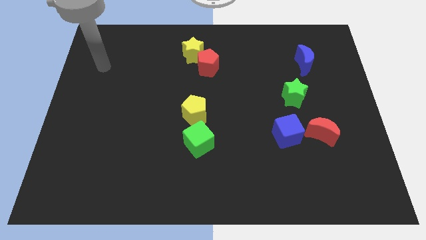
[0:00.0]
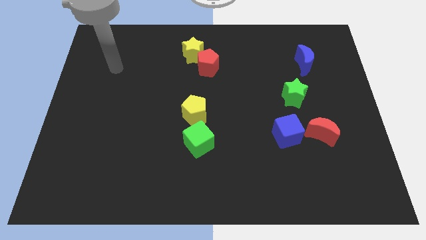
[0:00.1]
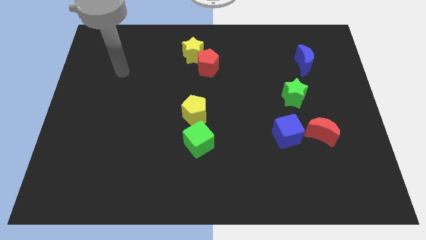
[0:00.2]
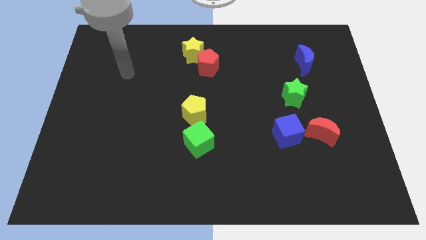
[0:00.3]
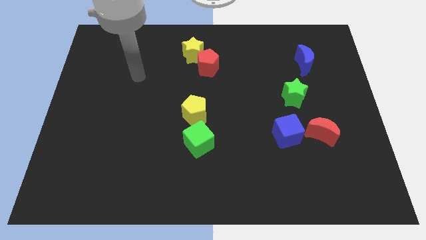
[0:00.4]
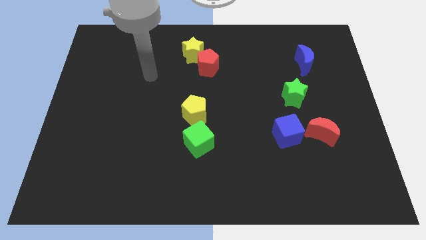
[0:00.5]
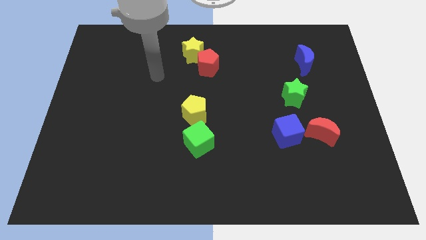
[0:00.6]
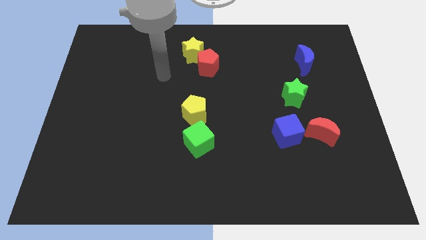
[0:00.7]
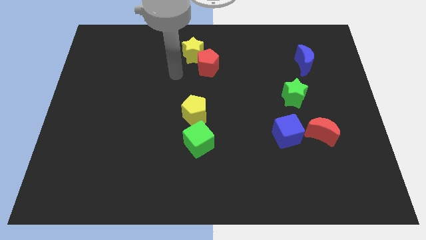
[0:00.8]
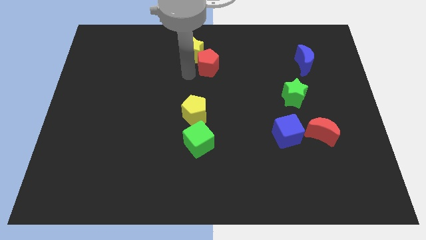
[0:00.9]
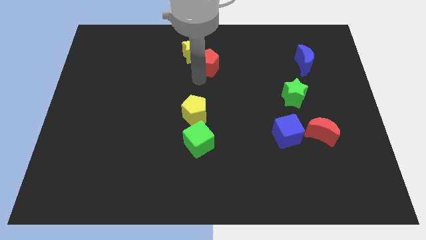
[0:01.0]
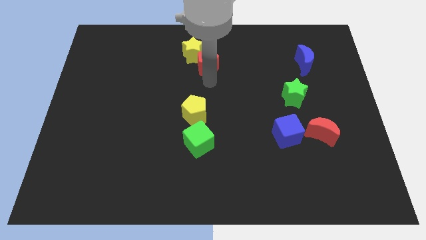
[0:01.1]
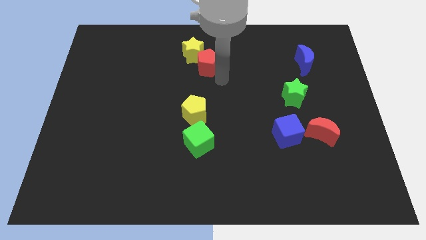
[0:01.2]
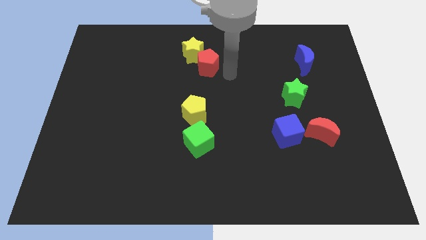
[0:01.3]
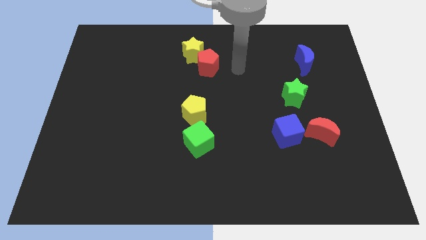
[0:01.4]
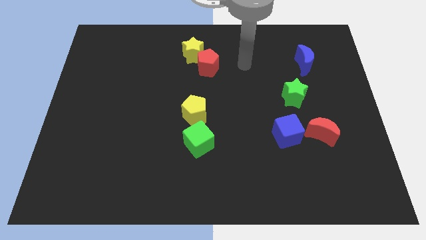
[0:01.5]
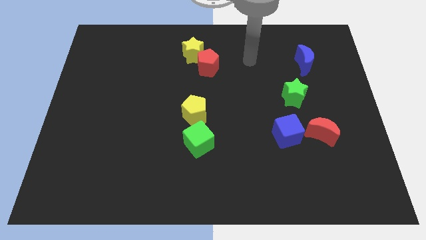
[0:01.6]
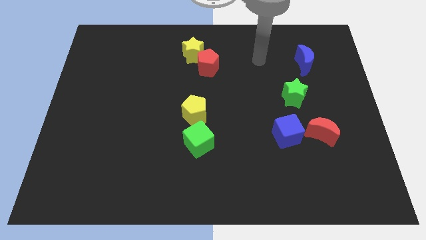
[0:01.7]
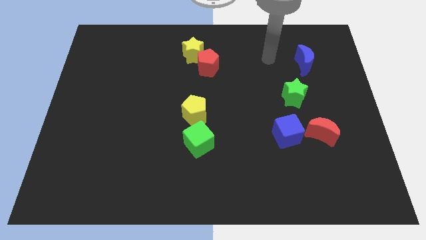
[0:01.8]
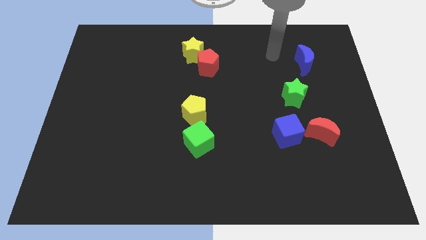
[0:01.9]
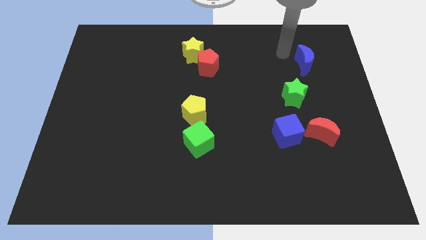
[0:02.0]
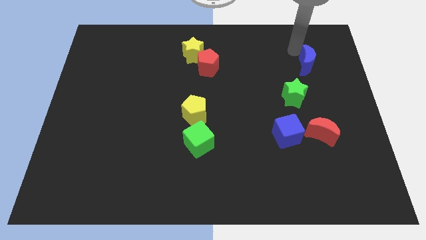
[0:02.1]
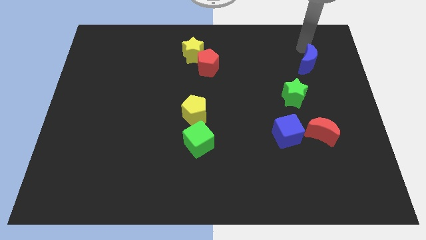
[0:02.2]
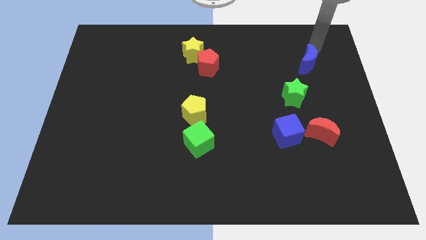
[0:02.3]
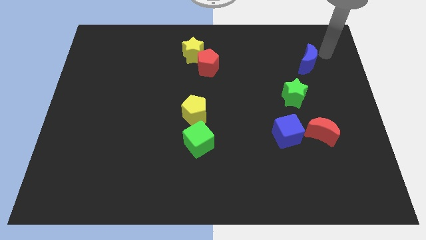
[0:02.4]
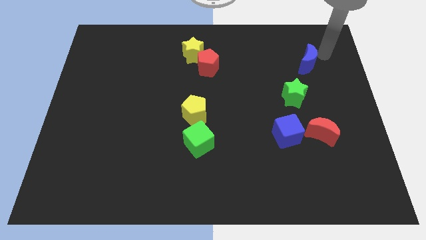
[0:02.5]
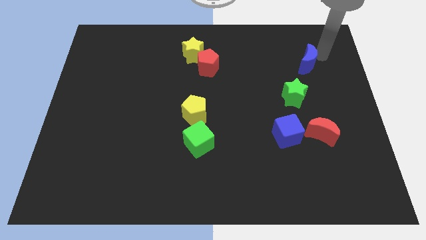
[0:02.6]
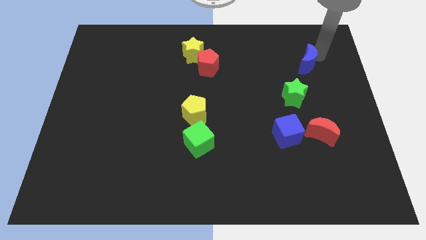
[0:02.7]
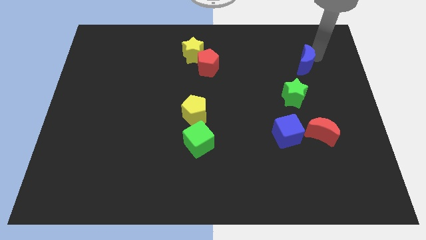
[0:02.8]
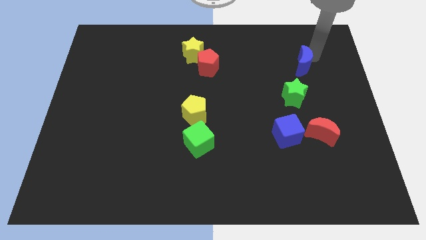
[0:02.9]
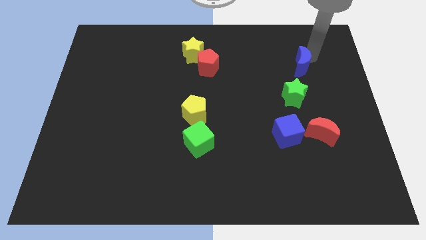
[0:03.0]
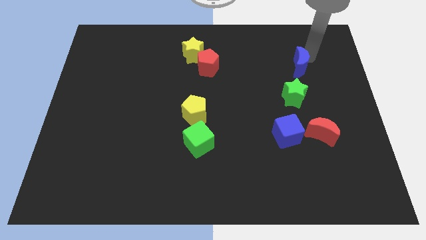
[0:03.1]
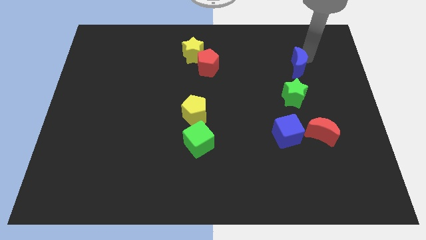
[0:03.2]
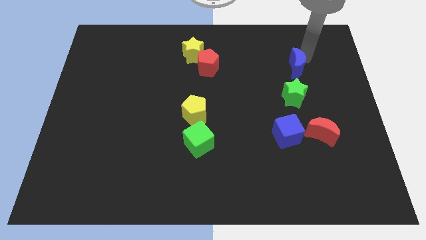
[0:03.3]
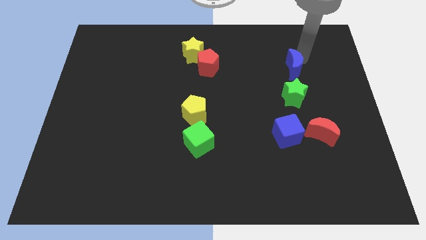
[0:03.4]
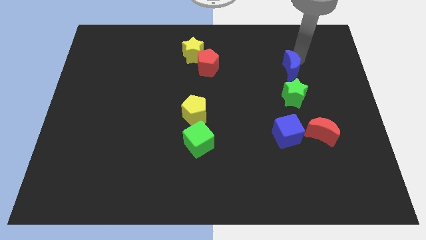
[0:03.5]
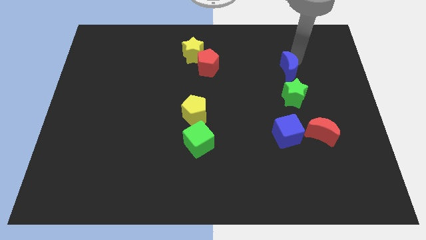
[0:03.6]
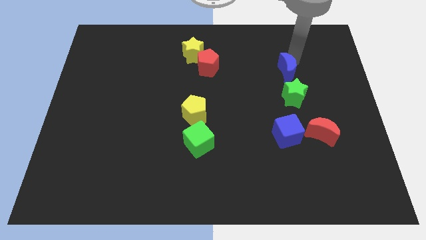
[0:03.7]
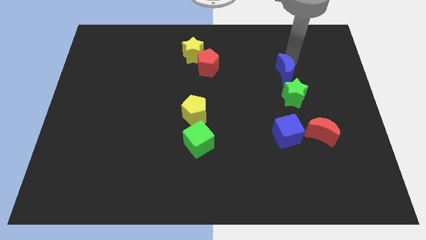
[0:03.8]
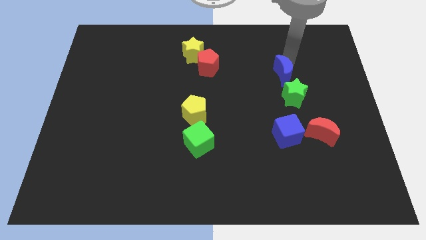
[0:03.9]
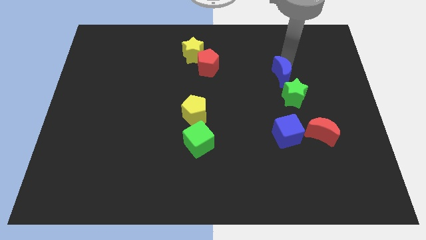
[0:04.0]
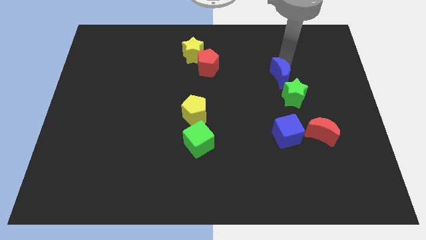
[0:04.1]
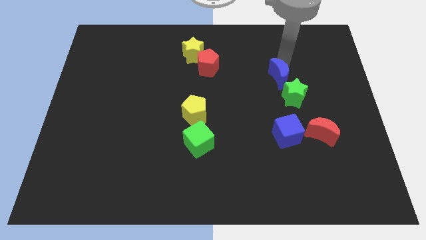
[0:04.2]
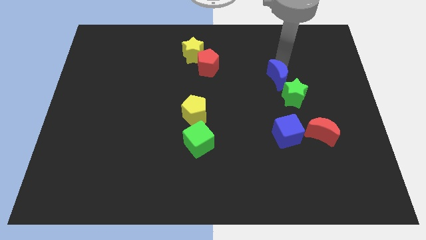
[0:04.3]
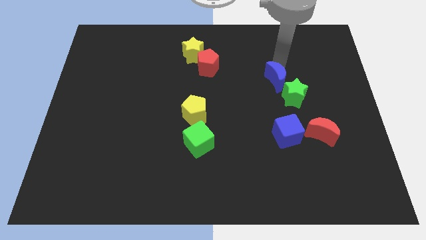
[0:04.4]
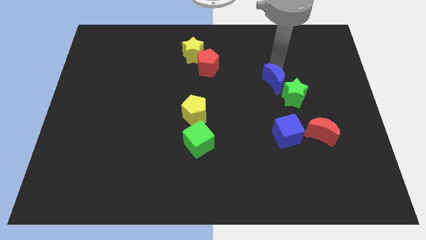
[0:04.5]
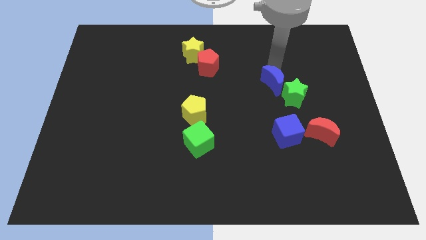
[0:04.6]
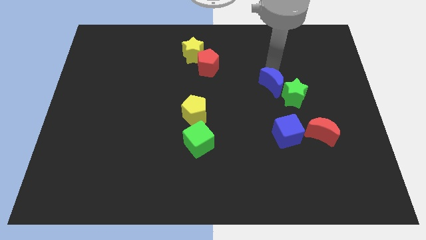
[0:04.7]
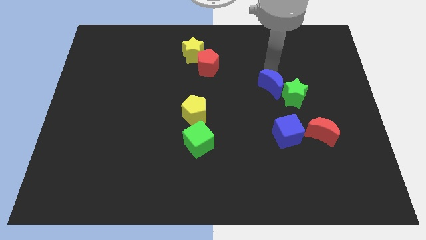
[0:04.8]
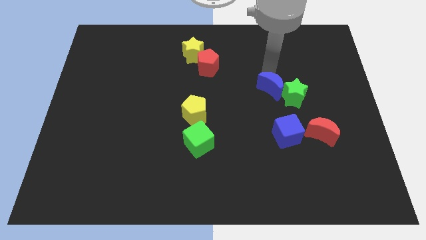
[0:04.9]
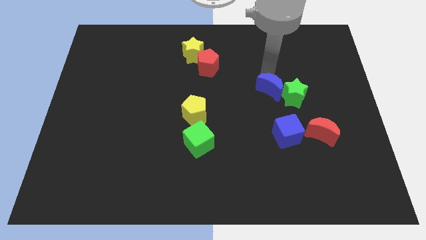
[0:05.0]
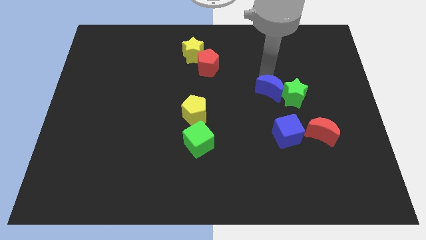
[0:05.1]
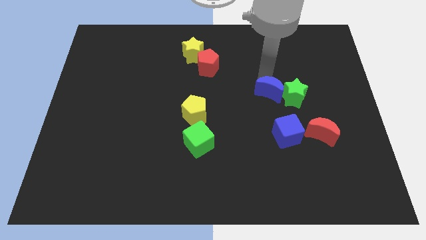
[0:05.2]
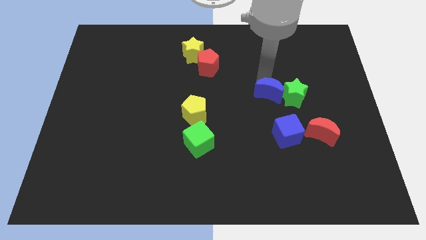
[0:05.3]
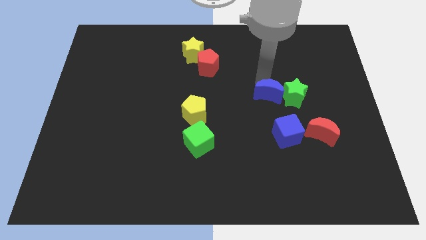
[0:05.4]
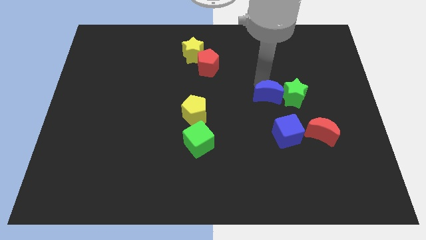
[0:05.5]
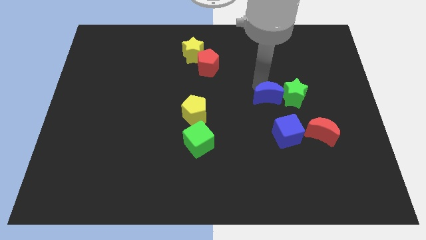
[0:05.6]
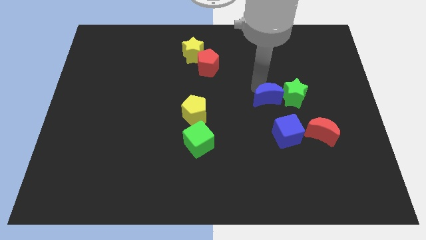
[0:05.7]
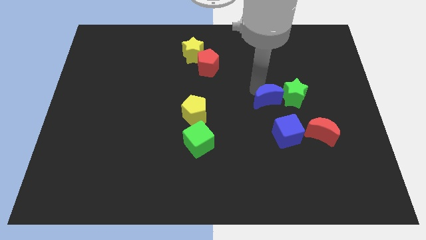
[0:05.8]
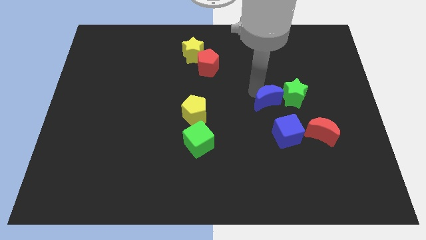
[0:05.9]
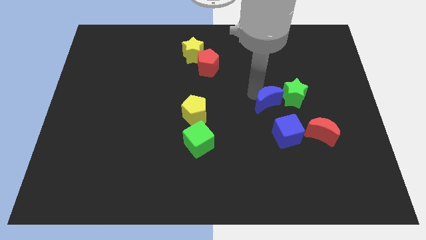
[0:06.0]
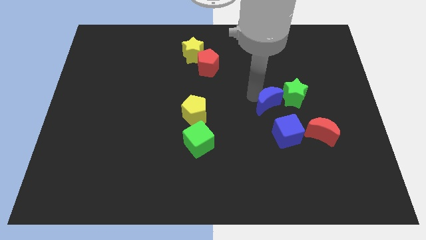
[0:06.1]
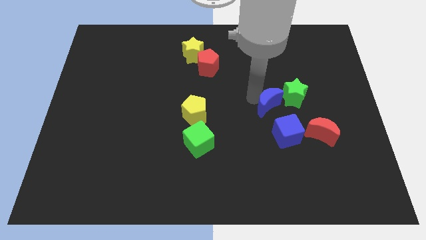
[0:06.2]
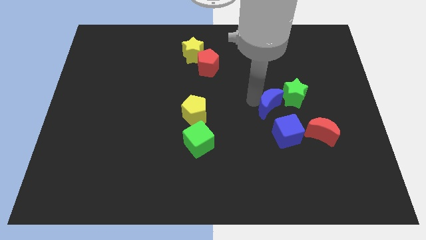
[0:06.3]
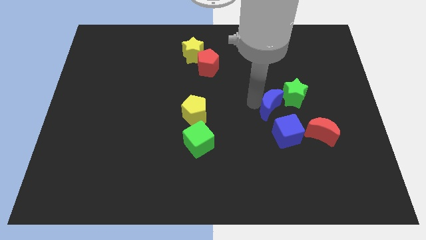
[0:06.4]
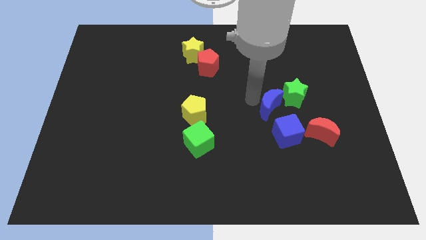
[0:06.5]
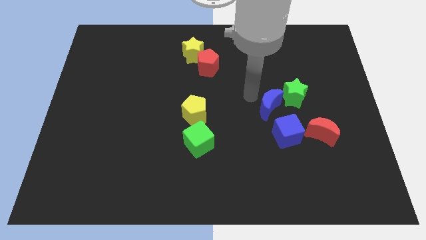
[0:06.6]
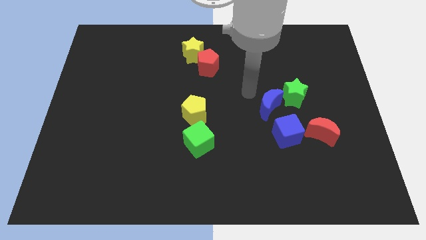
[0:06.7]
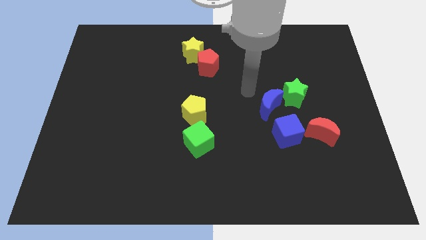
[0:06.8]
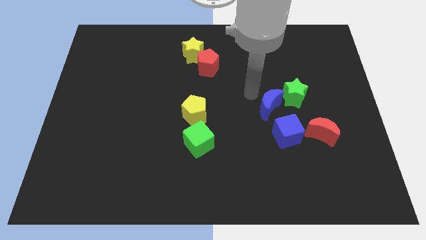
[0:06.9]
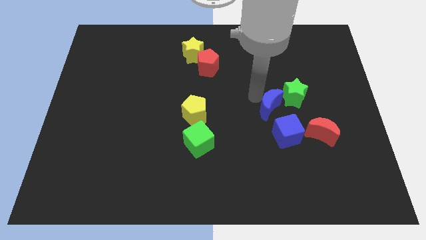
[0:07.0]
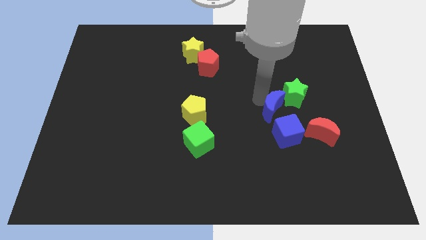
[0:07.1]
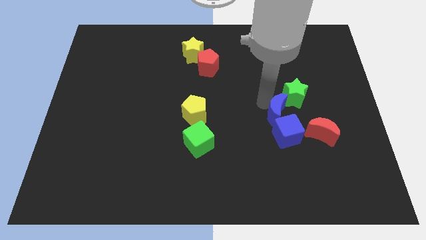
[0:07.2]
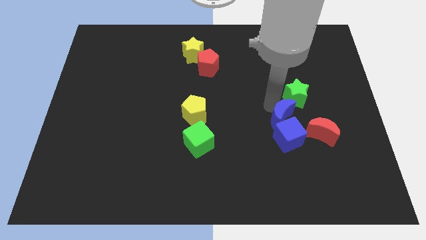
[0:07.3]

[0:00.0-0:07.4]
push the blue moon just left of the red moon

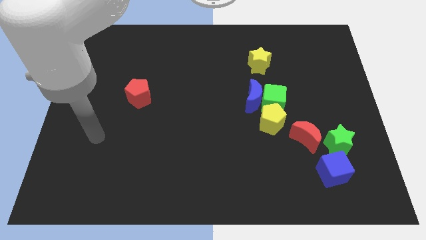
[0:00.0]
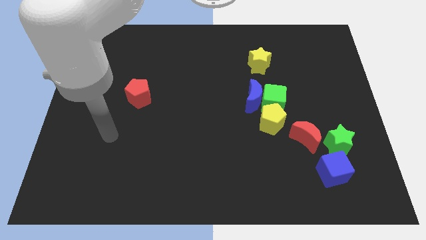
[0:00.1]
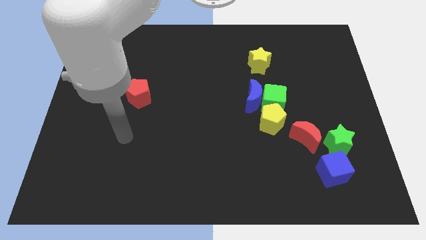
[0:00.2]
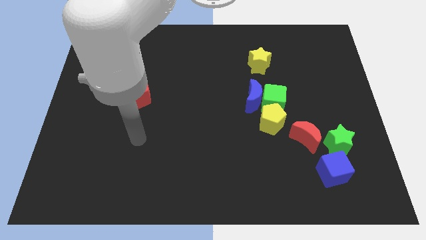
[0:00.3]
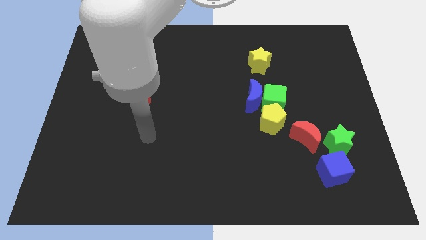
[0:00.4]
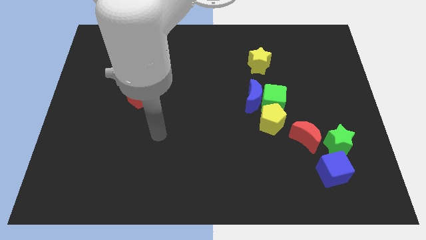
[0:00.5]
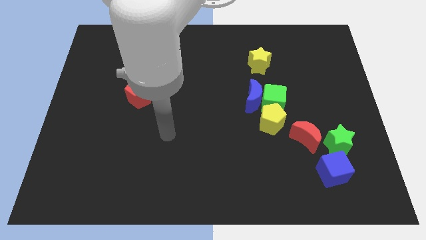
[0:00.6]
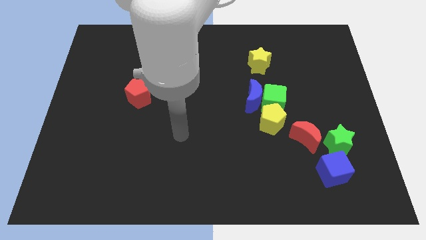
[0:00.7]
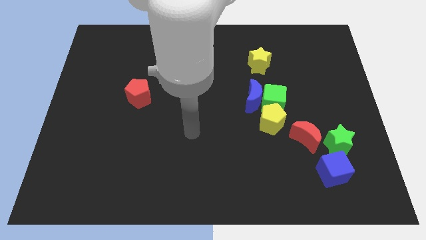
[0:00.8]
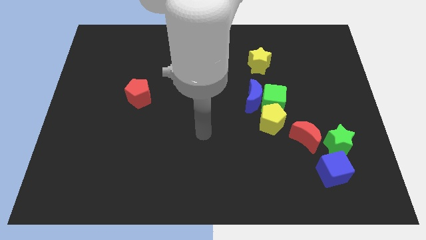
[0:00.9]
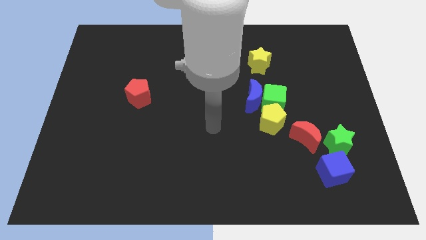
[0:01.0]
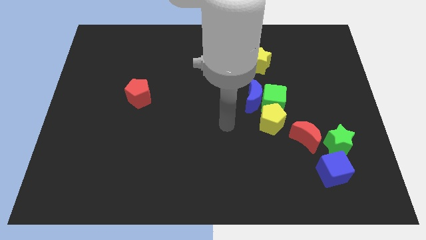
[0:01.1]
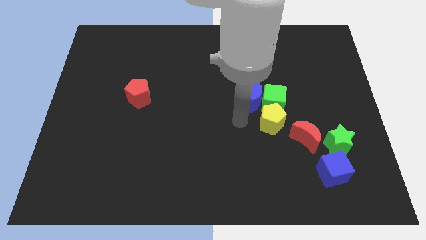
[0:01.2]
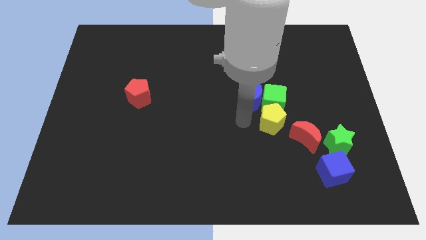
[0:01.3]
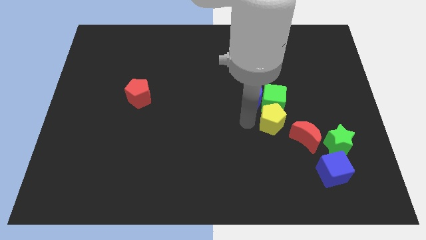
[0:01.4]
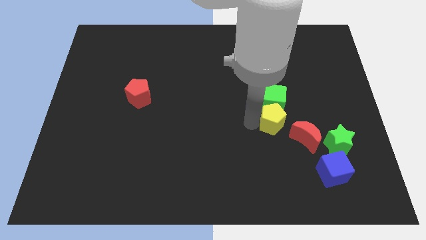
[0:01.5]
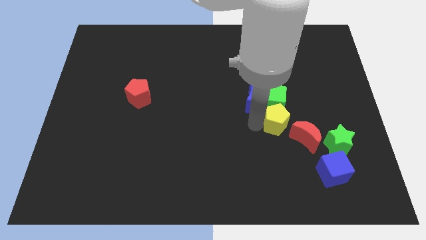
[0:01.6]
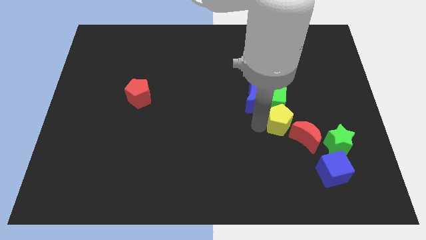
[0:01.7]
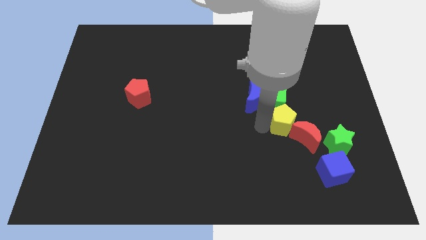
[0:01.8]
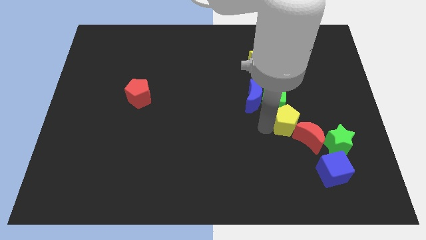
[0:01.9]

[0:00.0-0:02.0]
push the yellow pentagon to the top left of the green star
